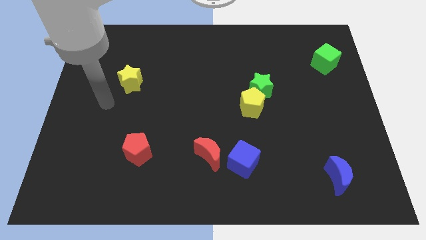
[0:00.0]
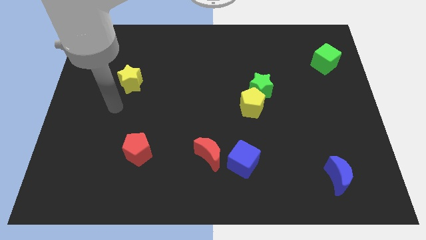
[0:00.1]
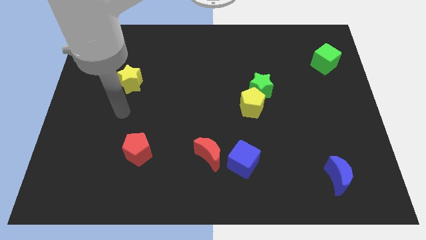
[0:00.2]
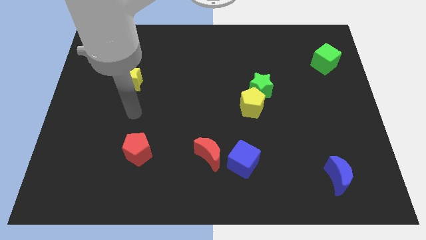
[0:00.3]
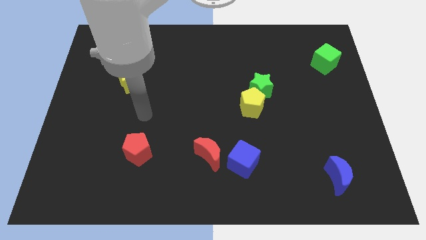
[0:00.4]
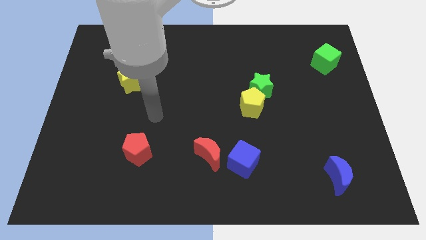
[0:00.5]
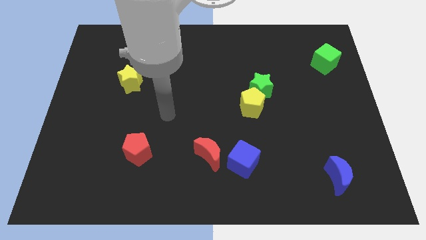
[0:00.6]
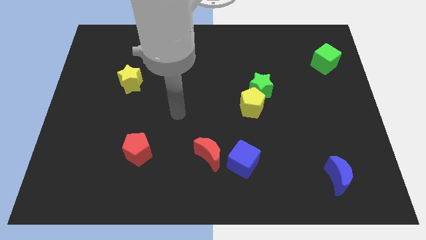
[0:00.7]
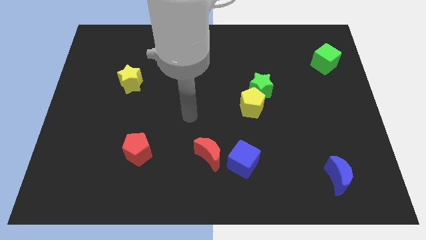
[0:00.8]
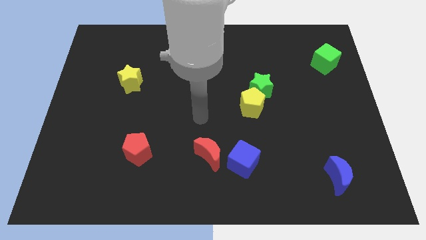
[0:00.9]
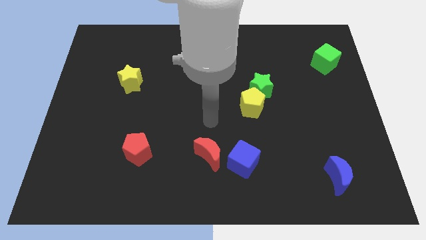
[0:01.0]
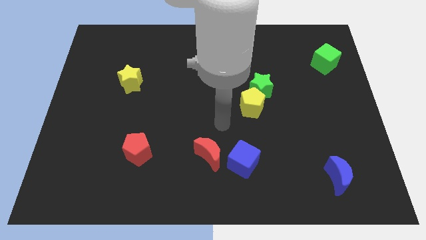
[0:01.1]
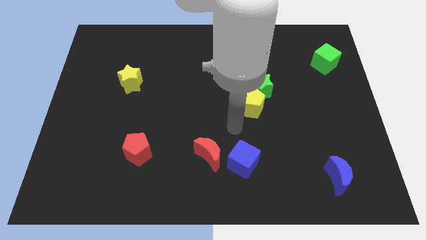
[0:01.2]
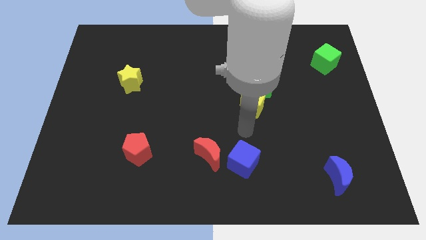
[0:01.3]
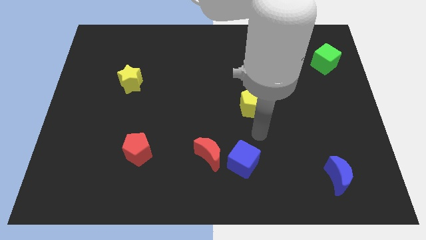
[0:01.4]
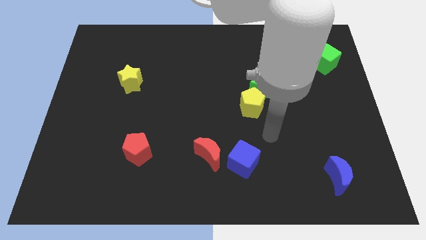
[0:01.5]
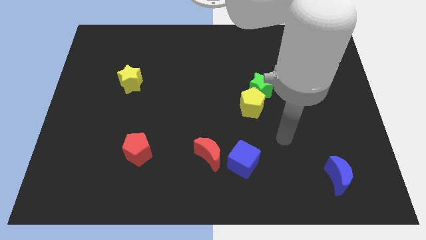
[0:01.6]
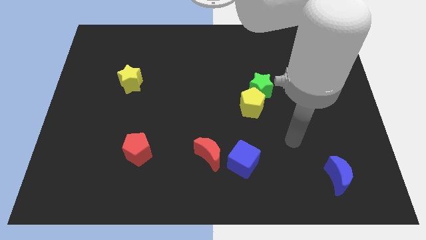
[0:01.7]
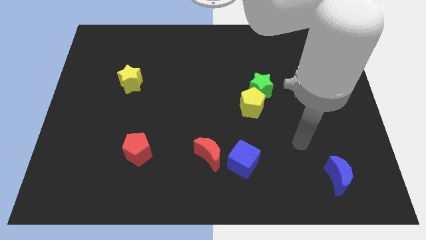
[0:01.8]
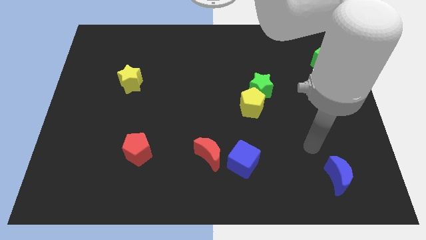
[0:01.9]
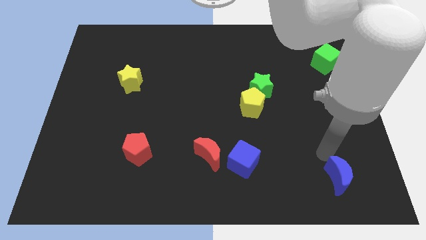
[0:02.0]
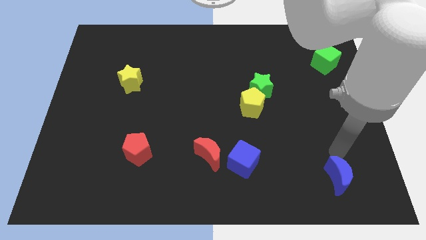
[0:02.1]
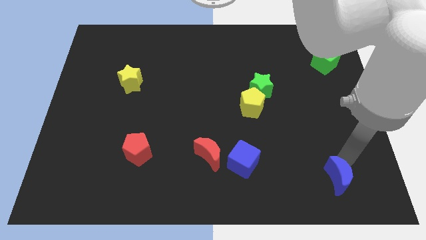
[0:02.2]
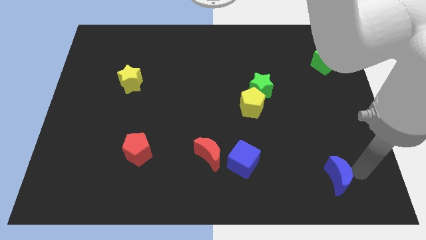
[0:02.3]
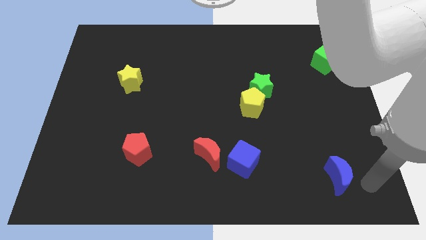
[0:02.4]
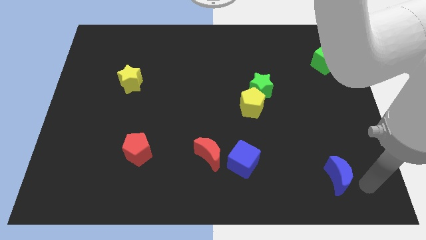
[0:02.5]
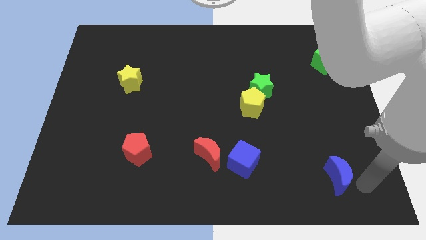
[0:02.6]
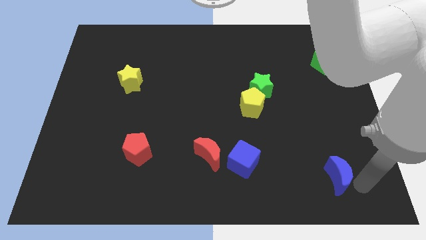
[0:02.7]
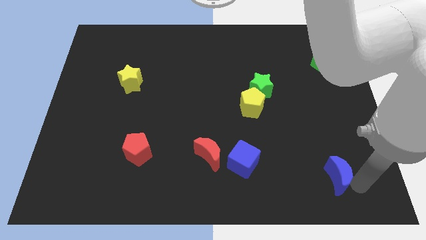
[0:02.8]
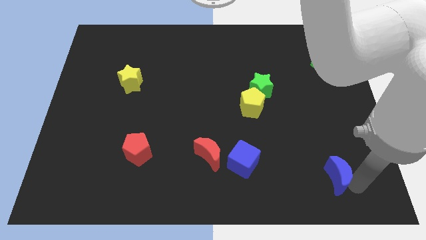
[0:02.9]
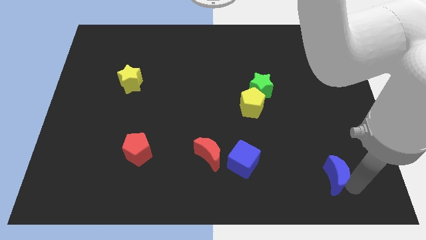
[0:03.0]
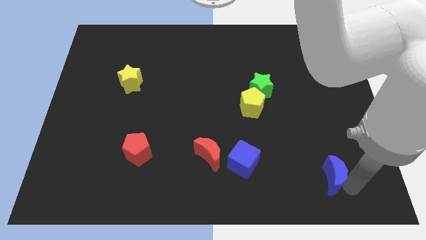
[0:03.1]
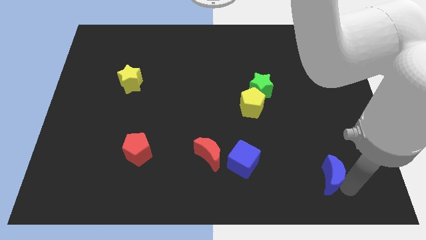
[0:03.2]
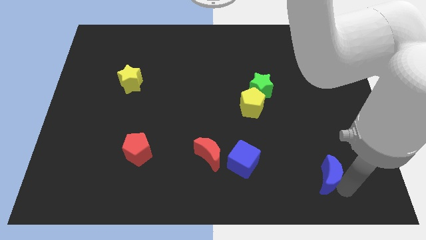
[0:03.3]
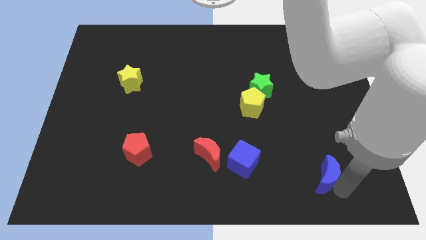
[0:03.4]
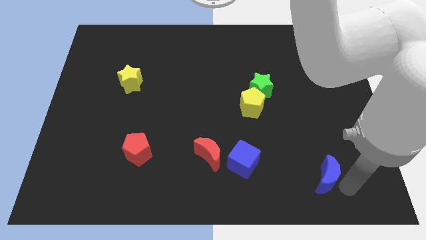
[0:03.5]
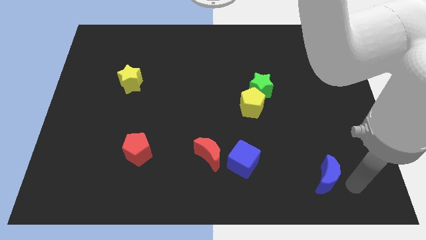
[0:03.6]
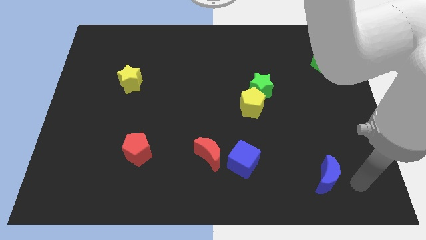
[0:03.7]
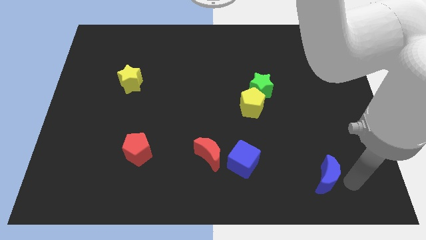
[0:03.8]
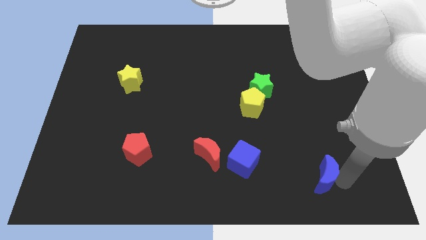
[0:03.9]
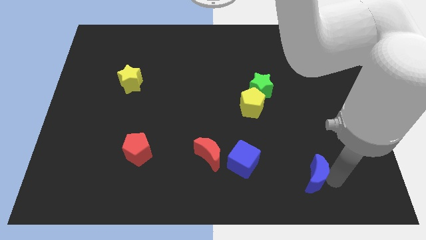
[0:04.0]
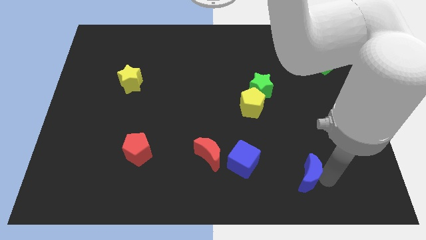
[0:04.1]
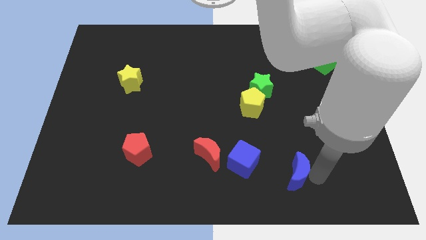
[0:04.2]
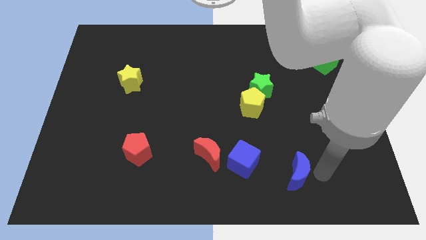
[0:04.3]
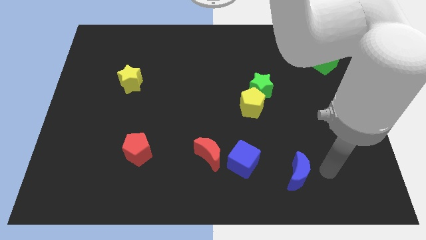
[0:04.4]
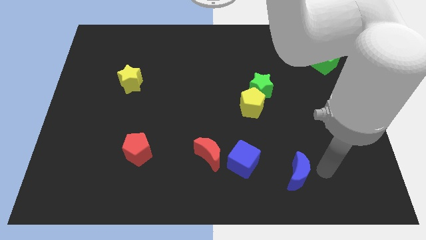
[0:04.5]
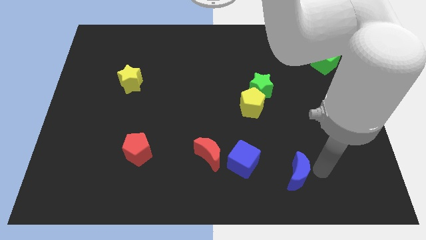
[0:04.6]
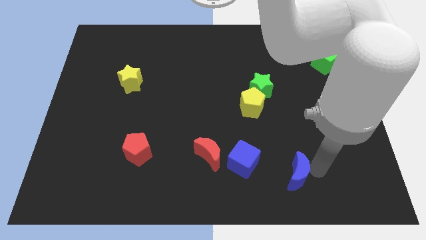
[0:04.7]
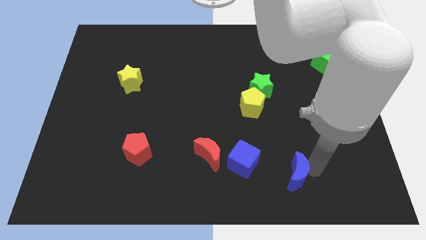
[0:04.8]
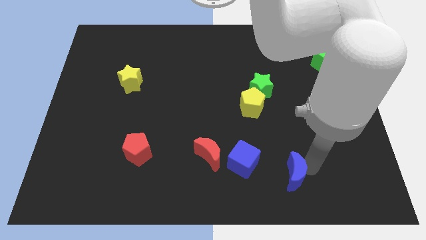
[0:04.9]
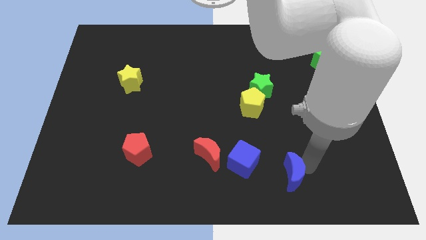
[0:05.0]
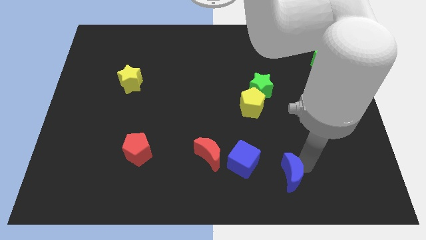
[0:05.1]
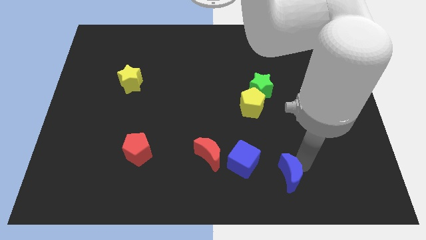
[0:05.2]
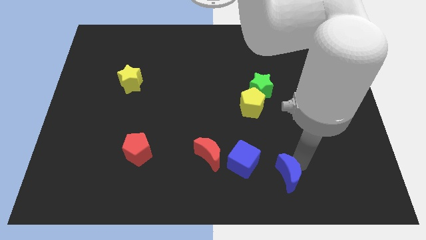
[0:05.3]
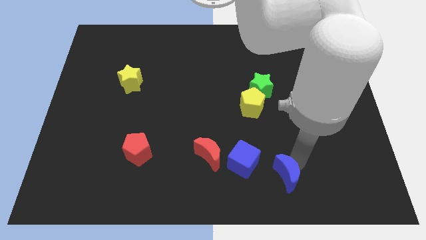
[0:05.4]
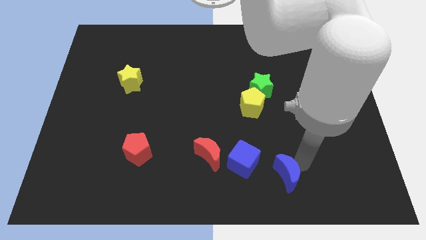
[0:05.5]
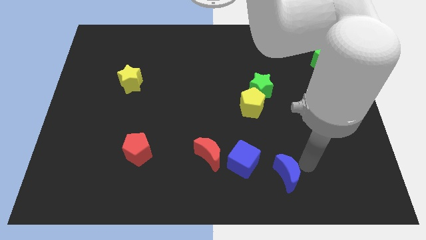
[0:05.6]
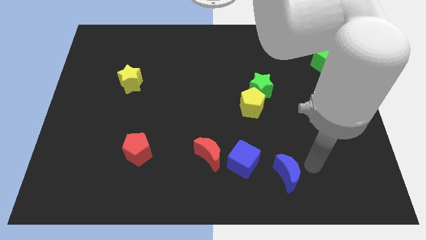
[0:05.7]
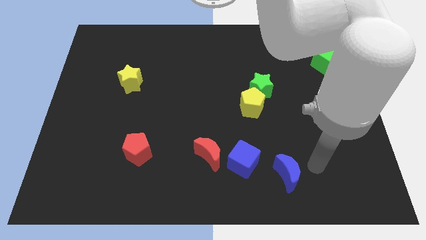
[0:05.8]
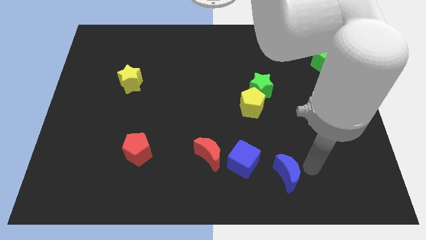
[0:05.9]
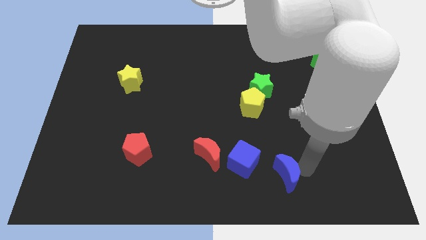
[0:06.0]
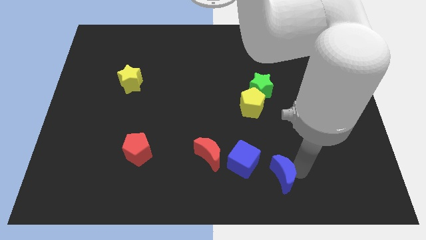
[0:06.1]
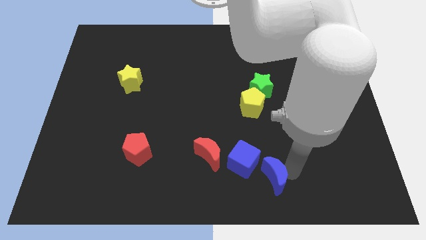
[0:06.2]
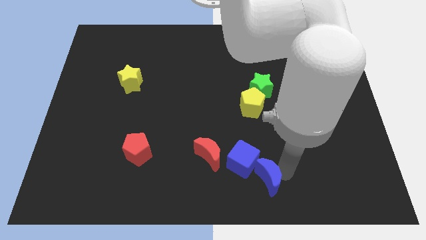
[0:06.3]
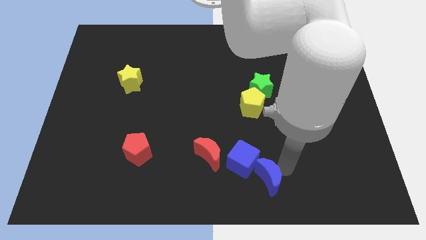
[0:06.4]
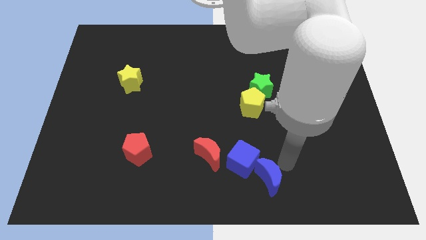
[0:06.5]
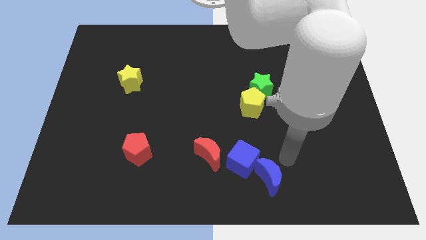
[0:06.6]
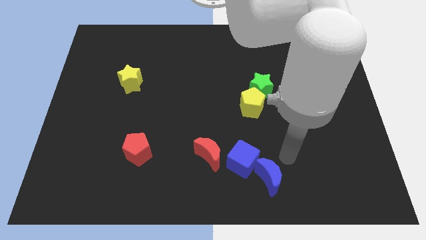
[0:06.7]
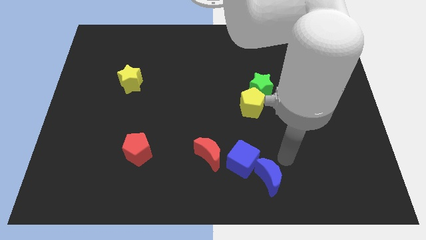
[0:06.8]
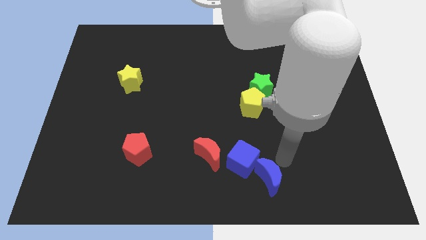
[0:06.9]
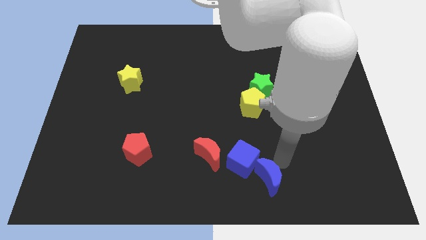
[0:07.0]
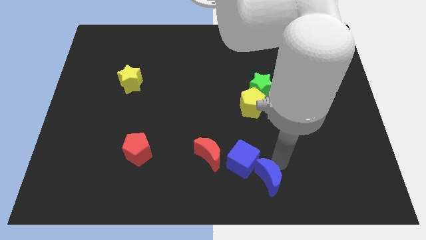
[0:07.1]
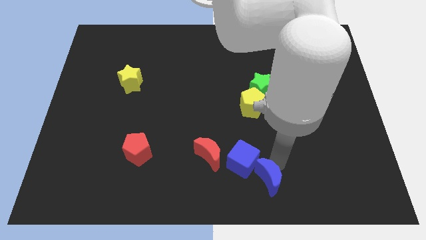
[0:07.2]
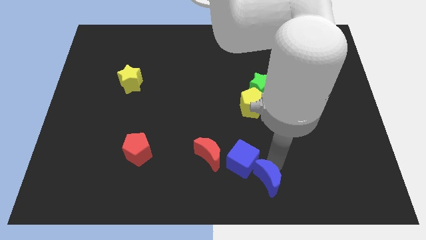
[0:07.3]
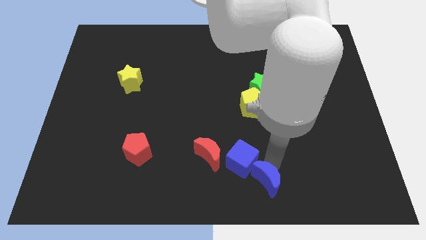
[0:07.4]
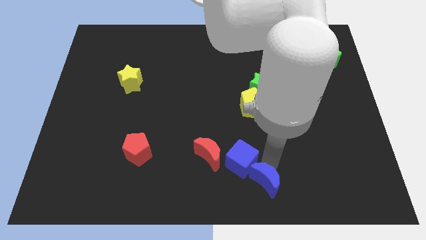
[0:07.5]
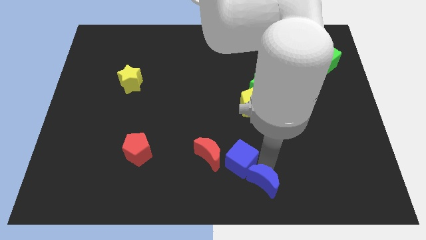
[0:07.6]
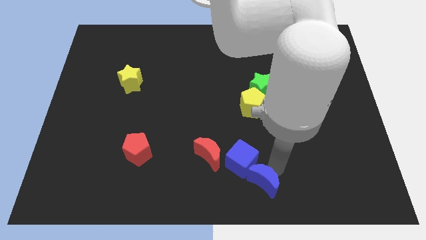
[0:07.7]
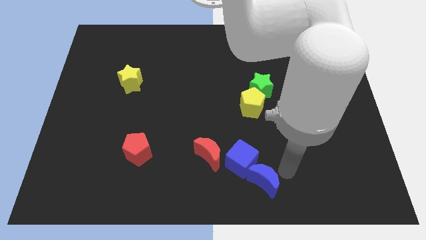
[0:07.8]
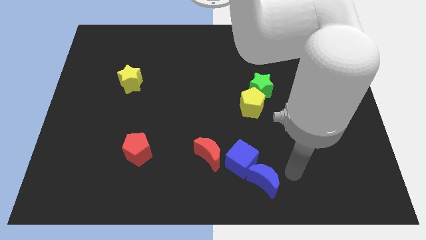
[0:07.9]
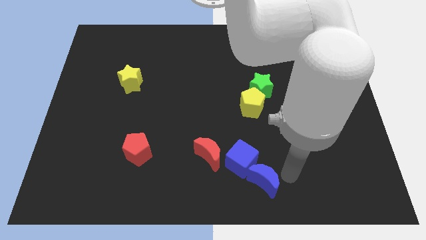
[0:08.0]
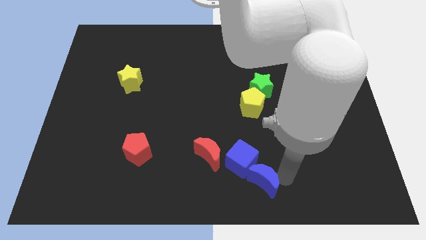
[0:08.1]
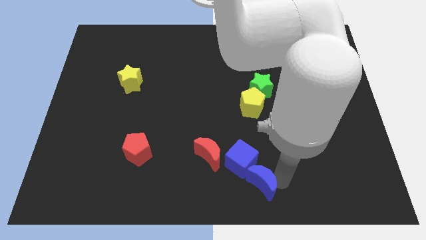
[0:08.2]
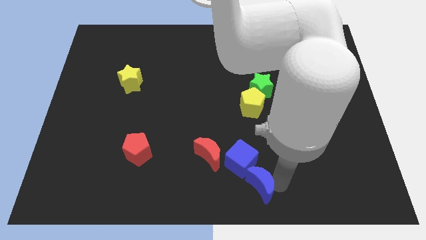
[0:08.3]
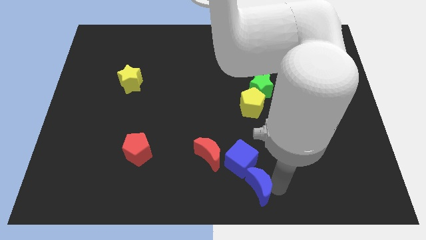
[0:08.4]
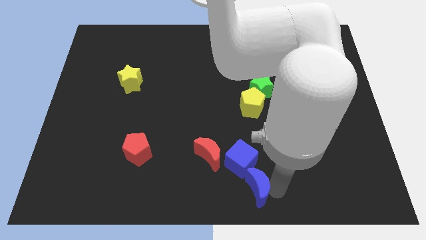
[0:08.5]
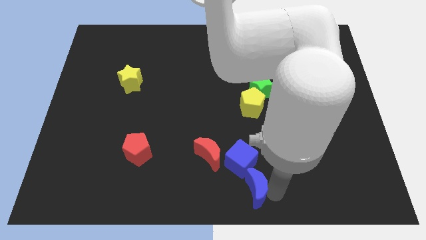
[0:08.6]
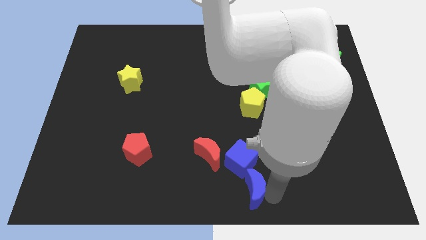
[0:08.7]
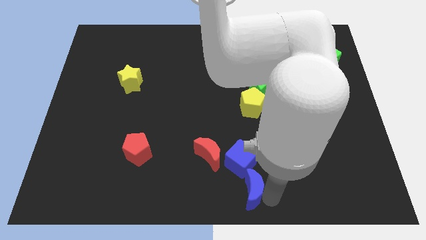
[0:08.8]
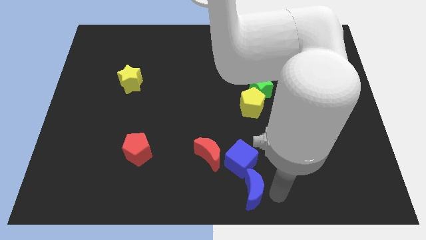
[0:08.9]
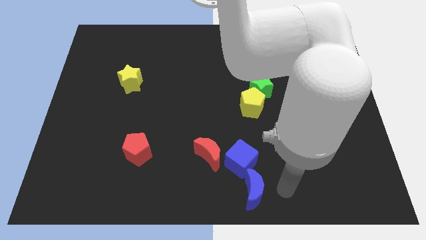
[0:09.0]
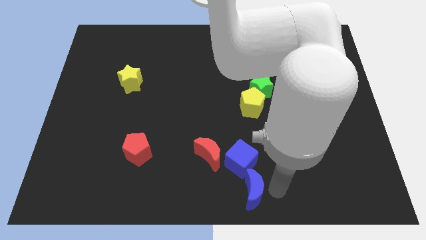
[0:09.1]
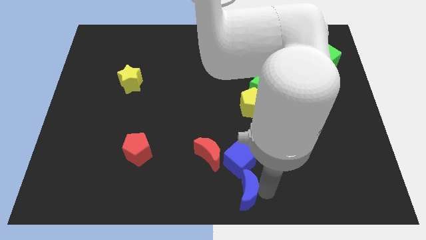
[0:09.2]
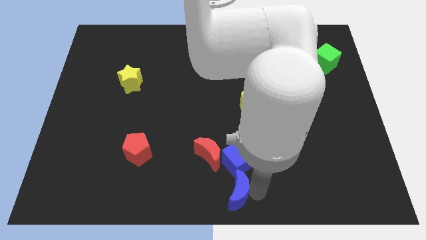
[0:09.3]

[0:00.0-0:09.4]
move the blue moon to the left
